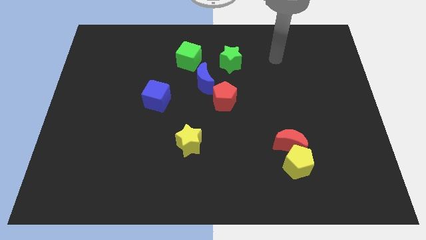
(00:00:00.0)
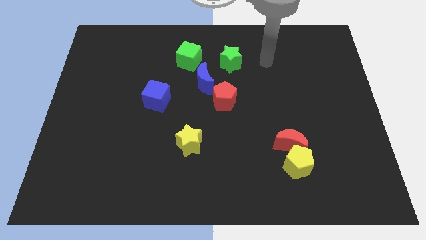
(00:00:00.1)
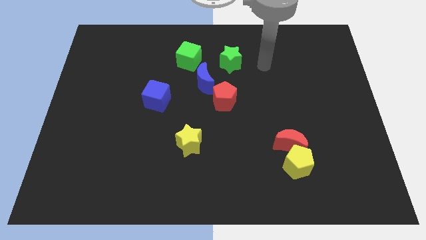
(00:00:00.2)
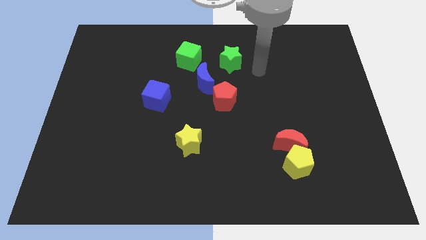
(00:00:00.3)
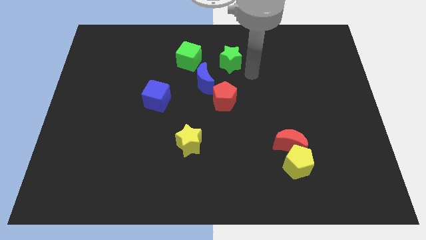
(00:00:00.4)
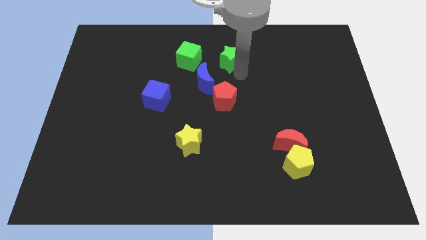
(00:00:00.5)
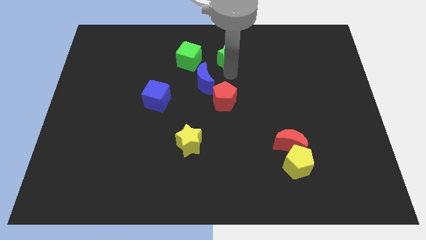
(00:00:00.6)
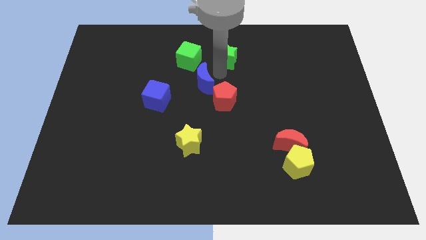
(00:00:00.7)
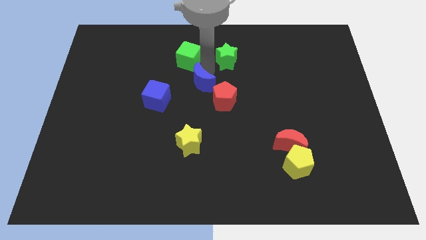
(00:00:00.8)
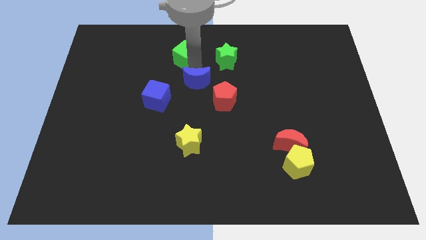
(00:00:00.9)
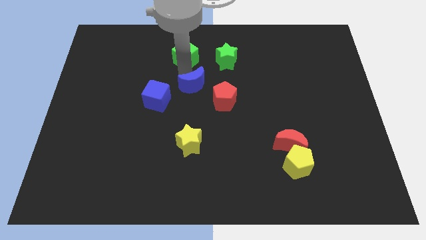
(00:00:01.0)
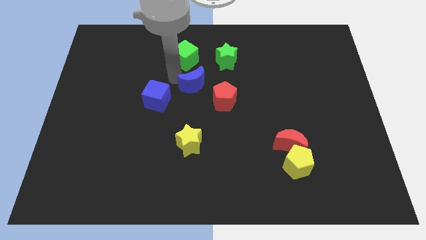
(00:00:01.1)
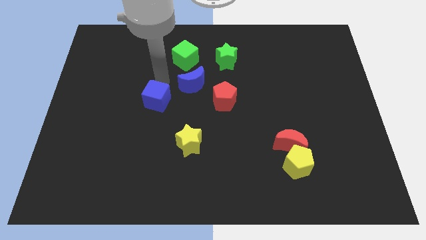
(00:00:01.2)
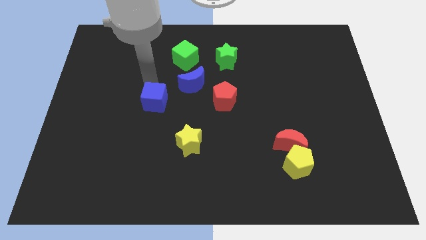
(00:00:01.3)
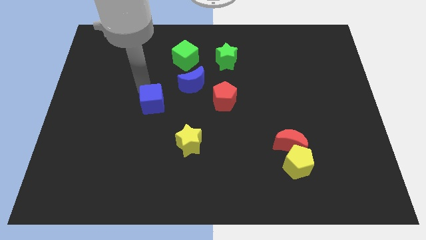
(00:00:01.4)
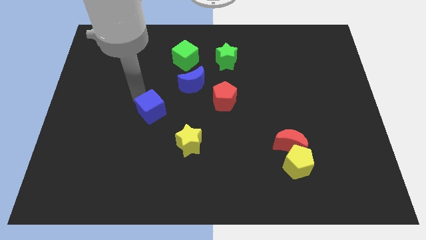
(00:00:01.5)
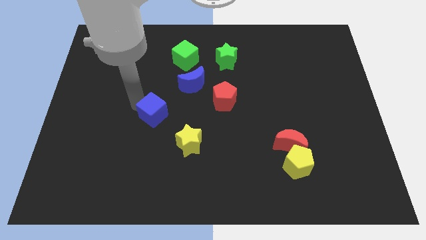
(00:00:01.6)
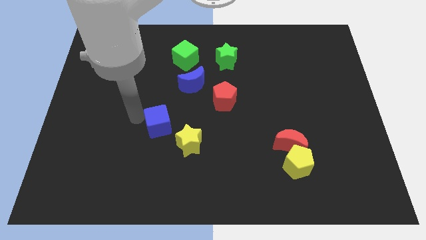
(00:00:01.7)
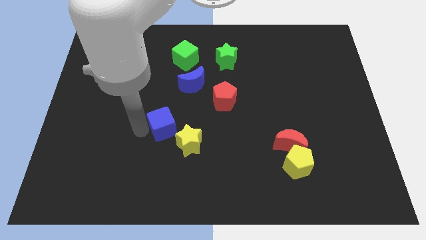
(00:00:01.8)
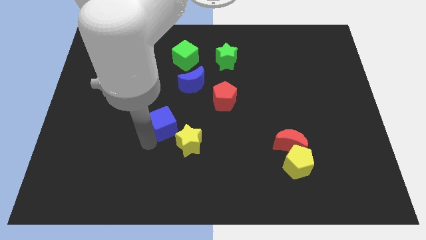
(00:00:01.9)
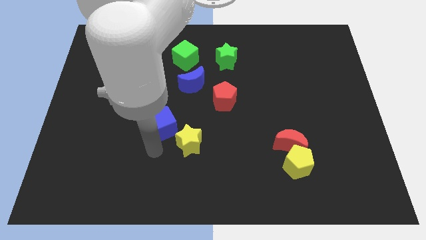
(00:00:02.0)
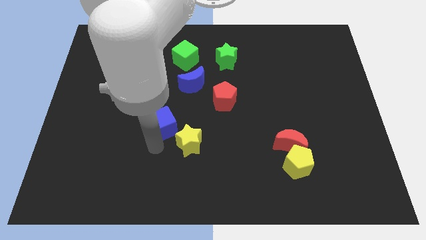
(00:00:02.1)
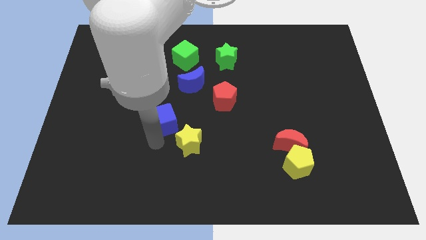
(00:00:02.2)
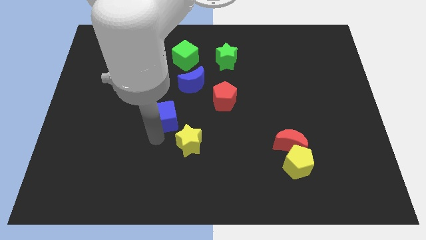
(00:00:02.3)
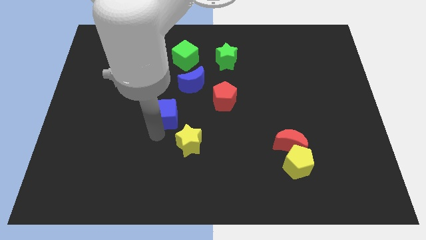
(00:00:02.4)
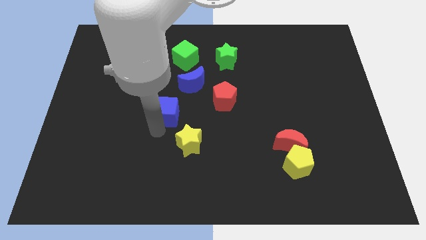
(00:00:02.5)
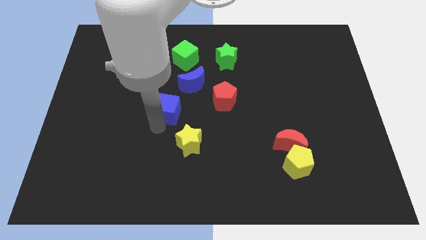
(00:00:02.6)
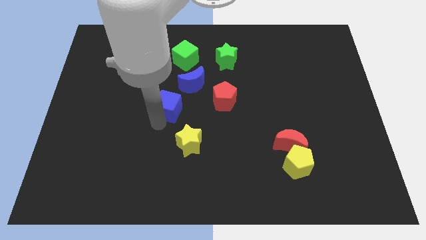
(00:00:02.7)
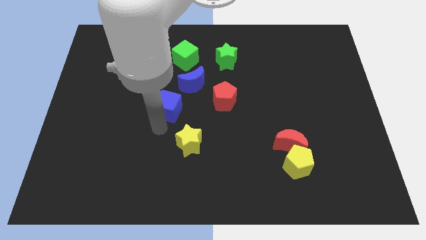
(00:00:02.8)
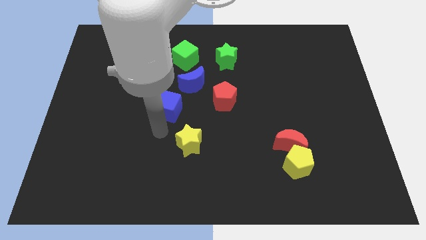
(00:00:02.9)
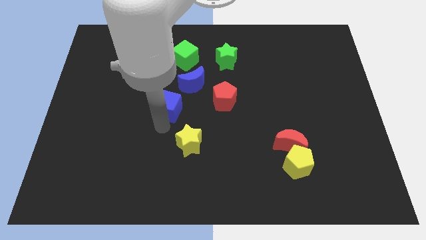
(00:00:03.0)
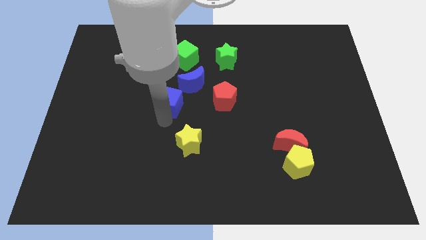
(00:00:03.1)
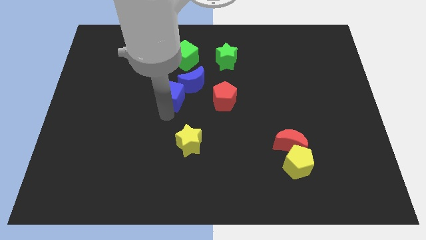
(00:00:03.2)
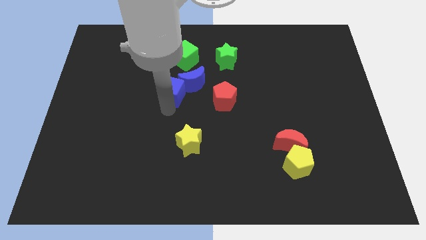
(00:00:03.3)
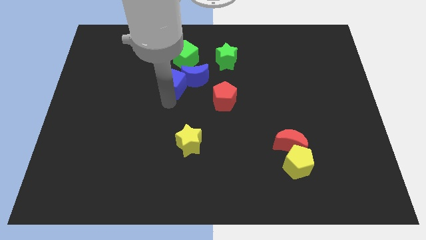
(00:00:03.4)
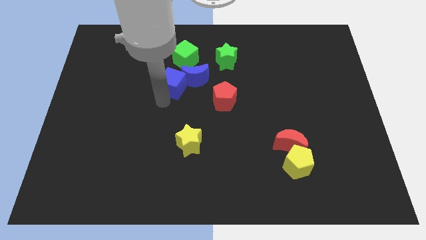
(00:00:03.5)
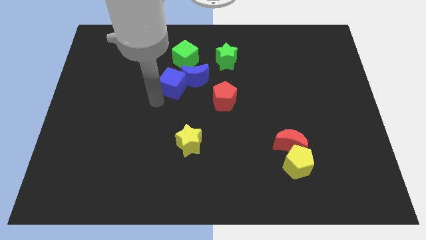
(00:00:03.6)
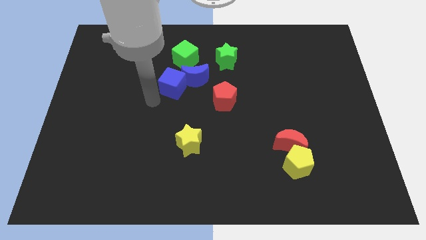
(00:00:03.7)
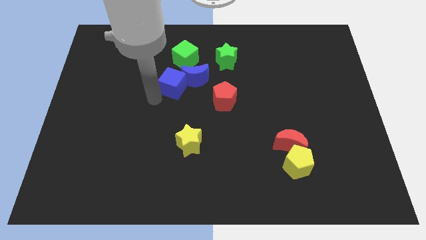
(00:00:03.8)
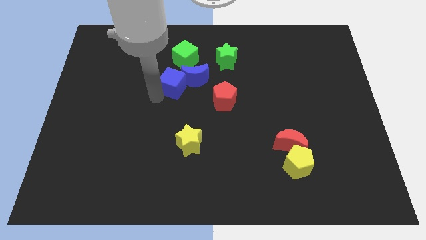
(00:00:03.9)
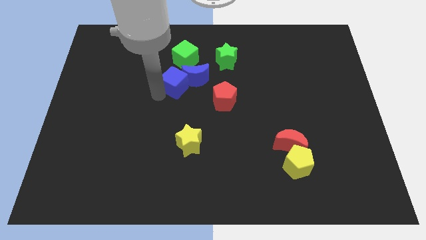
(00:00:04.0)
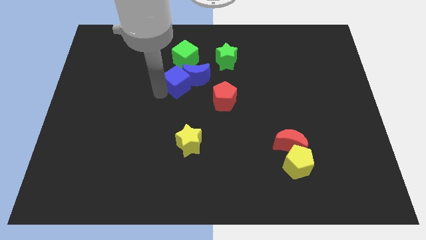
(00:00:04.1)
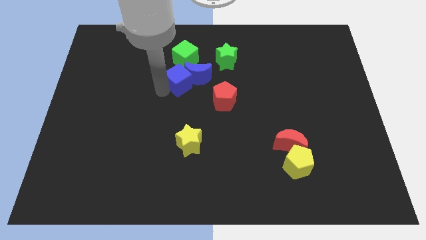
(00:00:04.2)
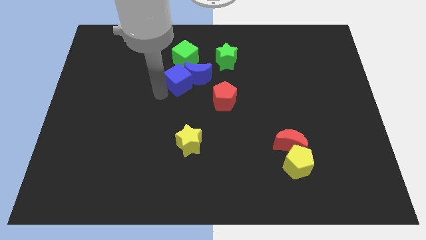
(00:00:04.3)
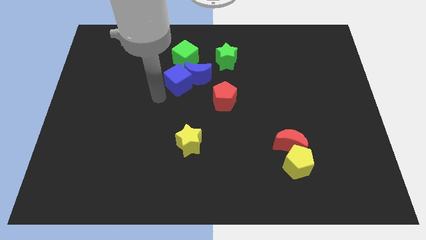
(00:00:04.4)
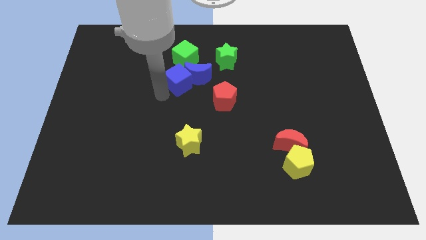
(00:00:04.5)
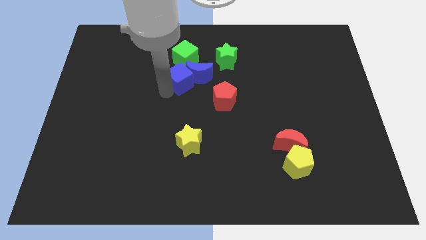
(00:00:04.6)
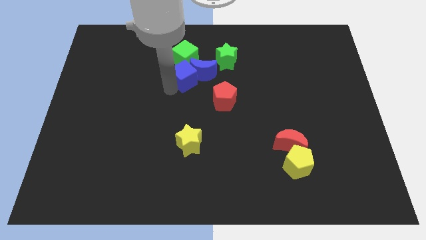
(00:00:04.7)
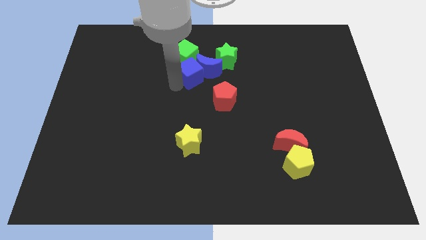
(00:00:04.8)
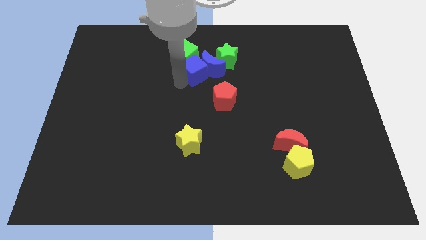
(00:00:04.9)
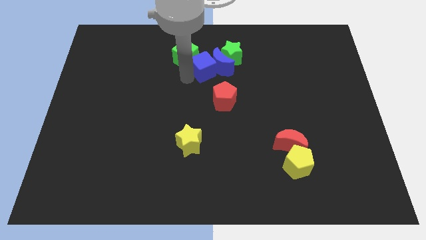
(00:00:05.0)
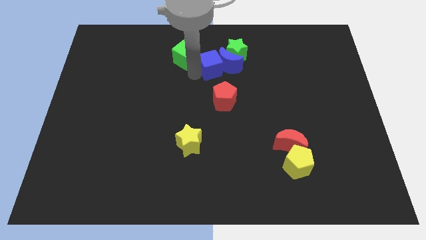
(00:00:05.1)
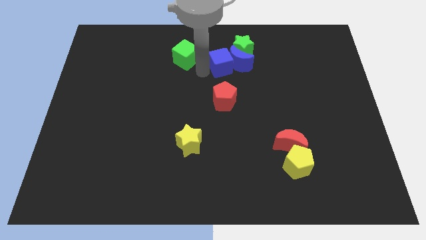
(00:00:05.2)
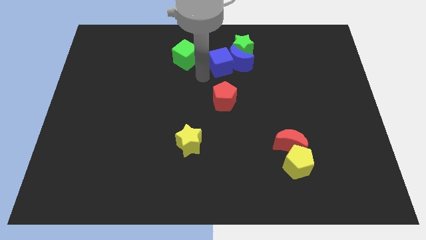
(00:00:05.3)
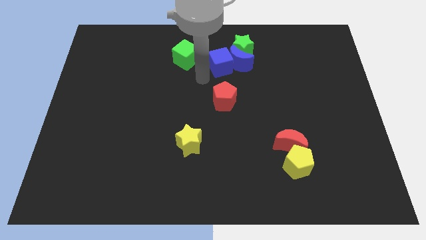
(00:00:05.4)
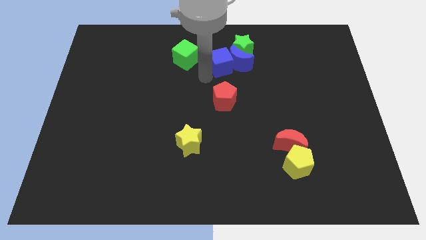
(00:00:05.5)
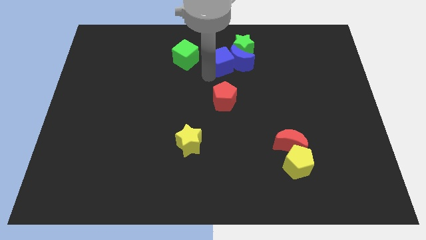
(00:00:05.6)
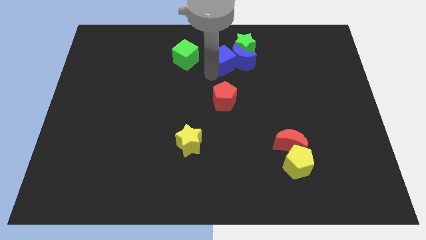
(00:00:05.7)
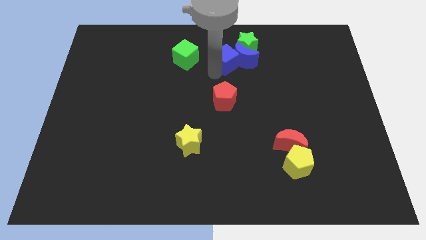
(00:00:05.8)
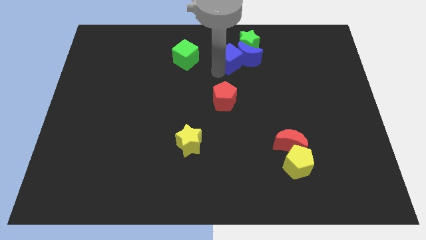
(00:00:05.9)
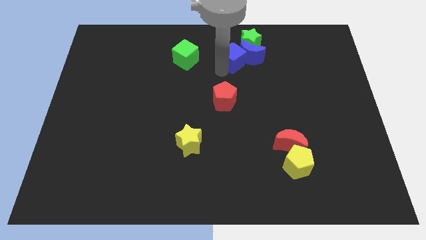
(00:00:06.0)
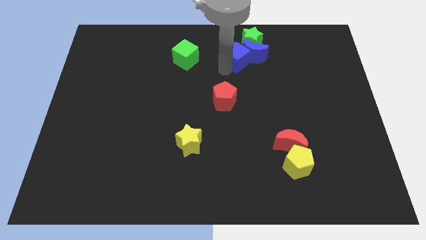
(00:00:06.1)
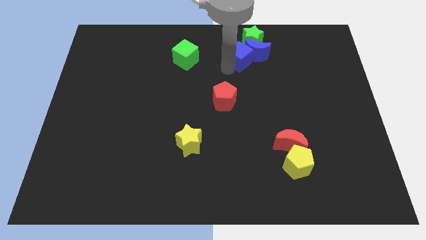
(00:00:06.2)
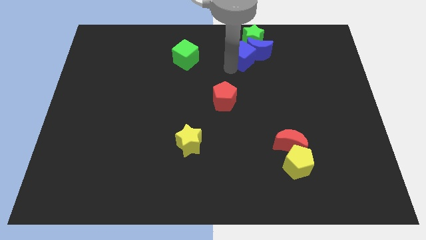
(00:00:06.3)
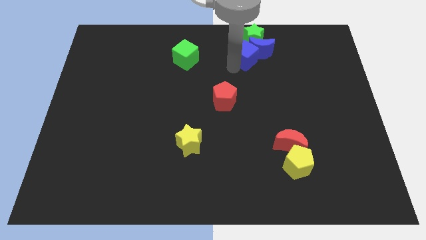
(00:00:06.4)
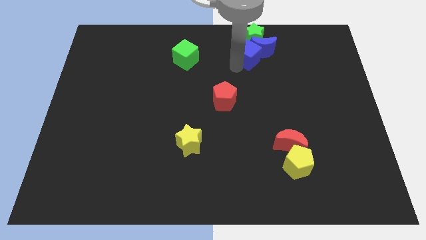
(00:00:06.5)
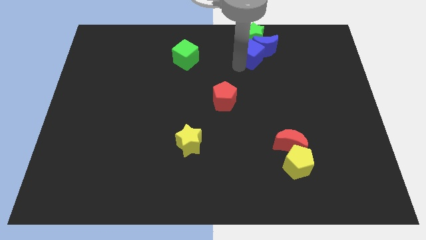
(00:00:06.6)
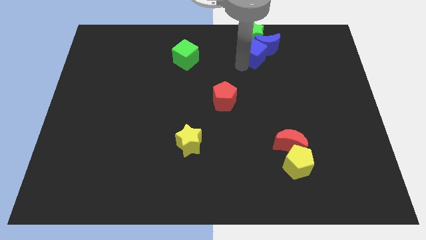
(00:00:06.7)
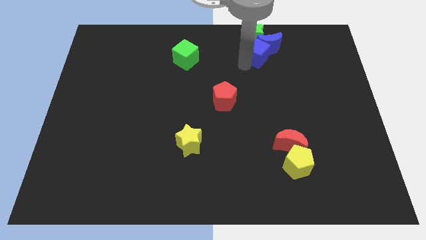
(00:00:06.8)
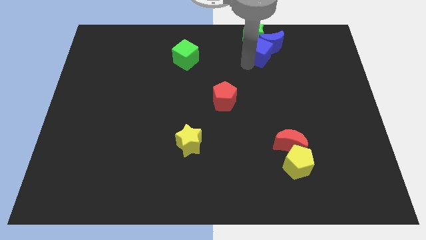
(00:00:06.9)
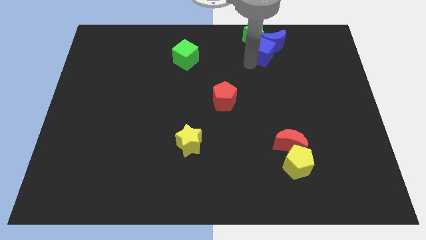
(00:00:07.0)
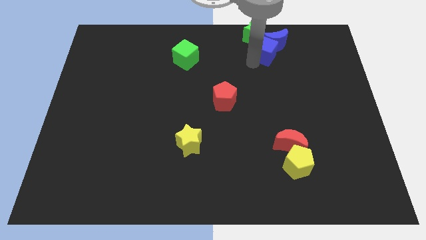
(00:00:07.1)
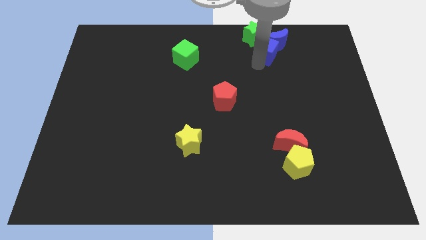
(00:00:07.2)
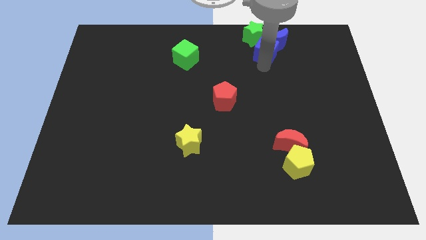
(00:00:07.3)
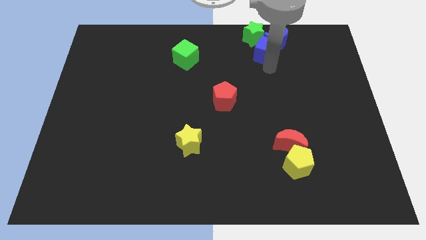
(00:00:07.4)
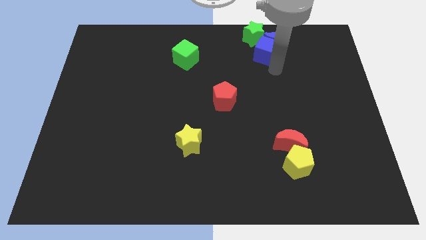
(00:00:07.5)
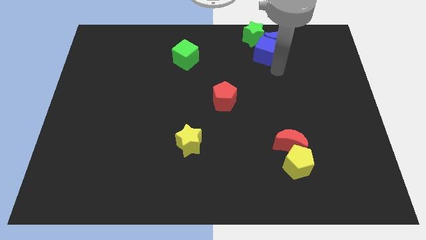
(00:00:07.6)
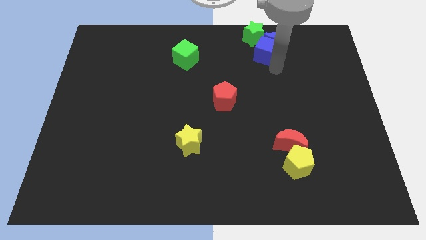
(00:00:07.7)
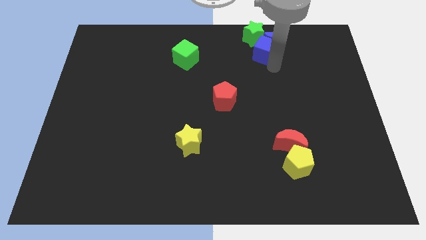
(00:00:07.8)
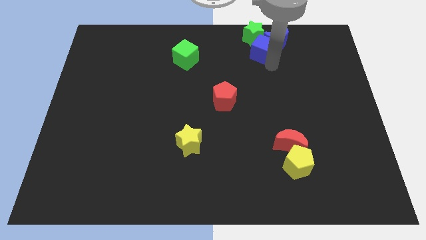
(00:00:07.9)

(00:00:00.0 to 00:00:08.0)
push the blue cube close to the green star
